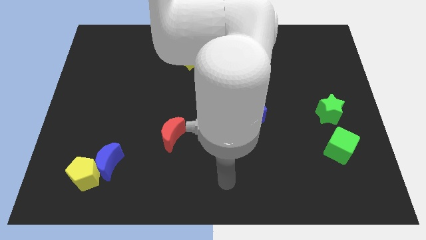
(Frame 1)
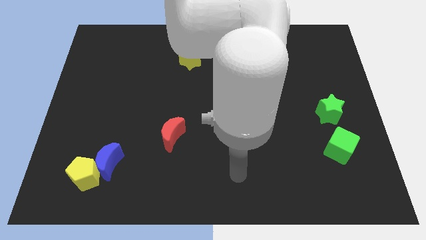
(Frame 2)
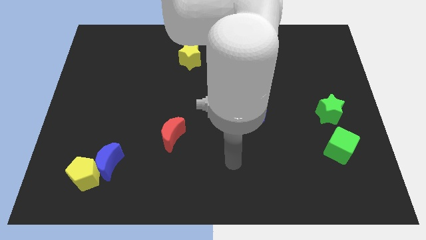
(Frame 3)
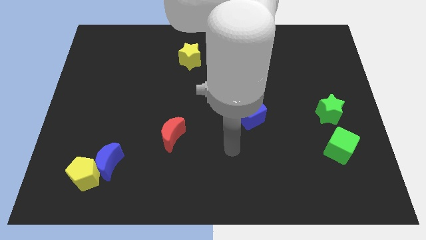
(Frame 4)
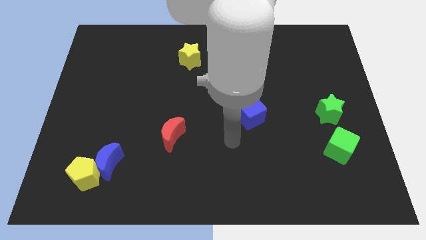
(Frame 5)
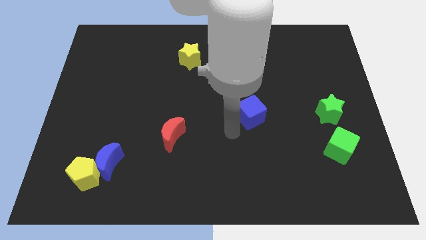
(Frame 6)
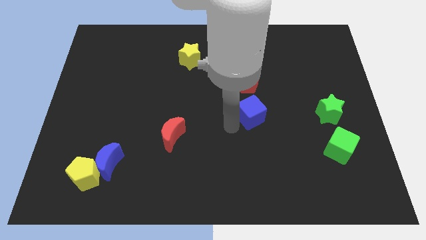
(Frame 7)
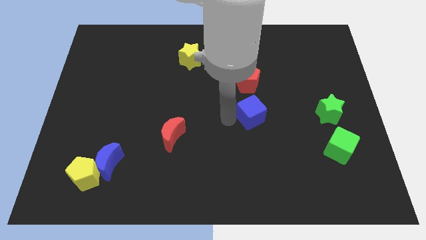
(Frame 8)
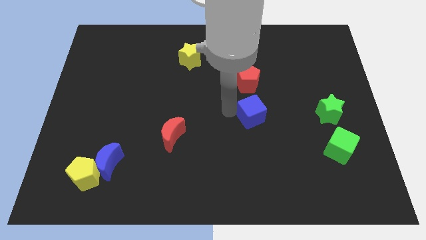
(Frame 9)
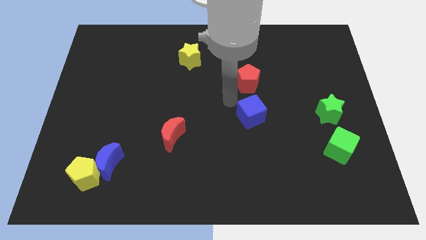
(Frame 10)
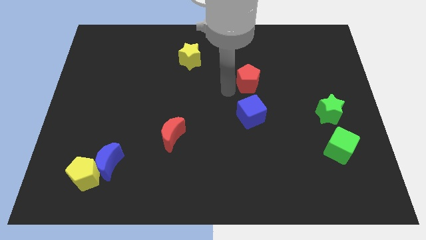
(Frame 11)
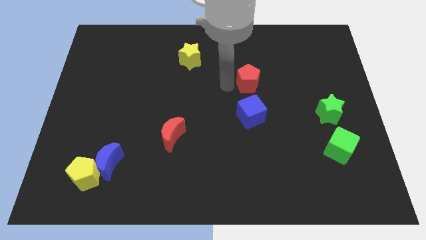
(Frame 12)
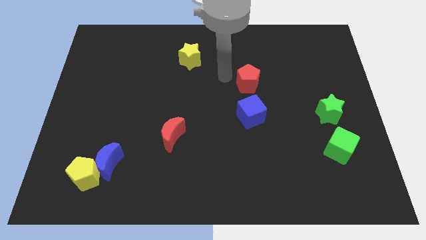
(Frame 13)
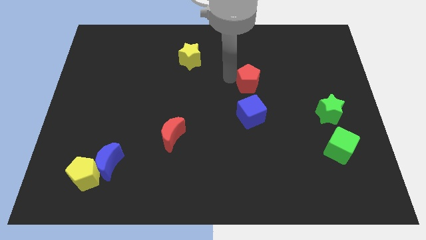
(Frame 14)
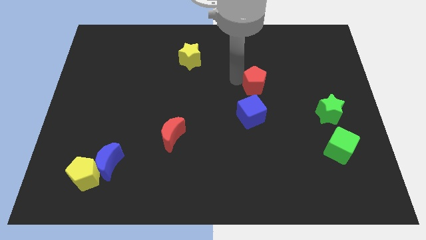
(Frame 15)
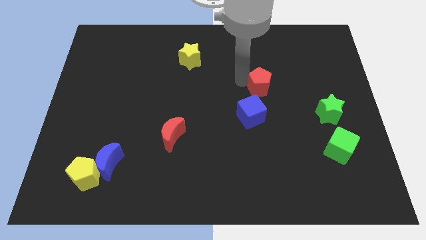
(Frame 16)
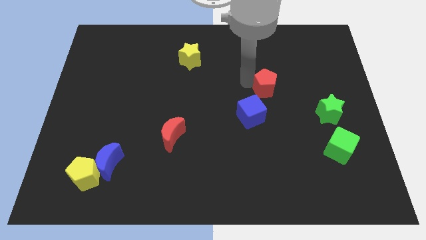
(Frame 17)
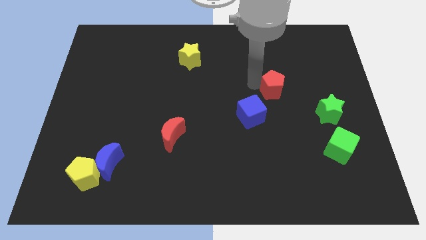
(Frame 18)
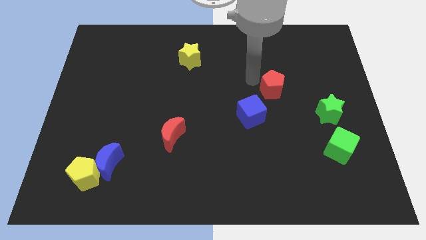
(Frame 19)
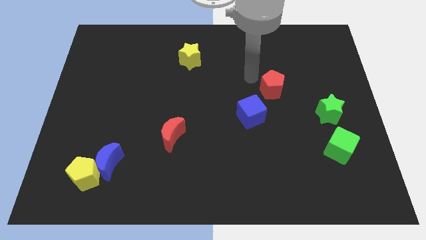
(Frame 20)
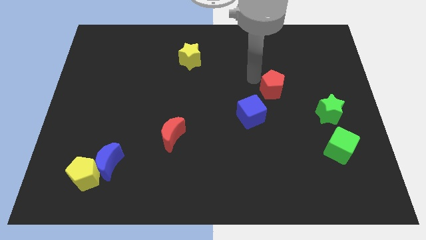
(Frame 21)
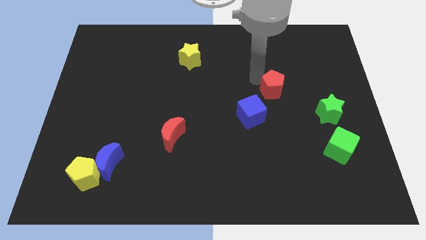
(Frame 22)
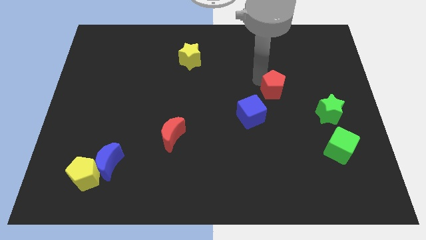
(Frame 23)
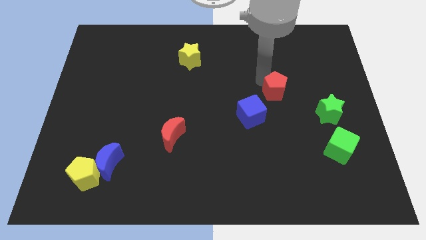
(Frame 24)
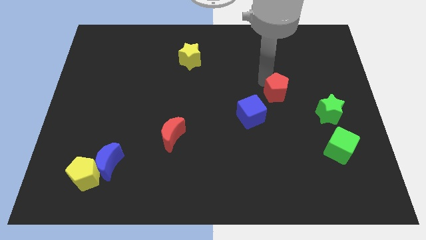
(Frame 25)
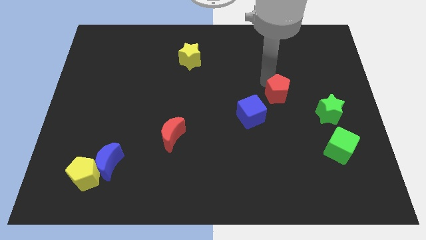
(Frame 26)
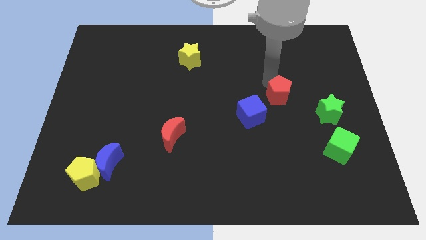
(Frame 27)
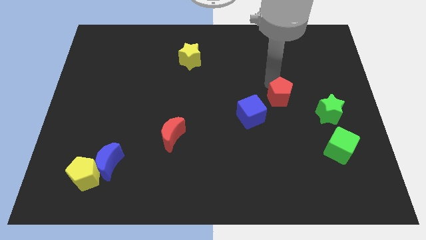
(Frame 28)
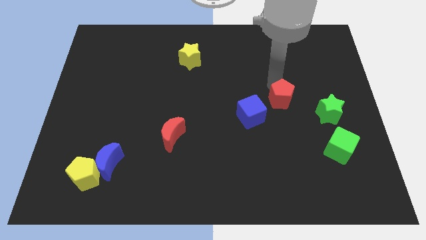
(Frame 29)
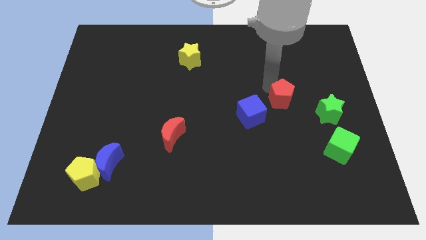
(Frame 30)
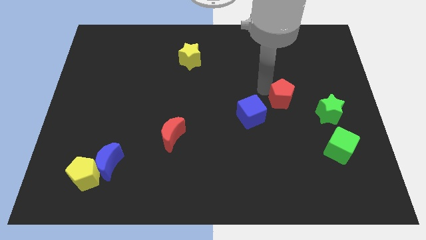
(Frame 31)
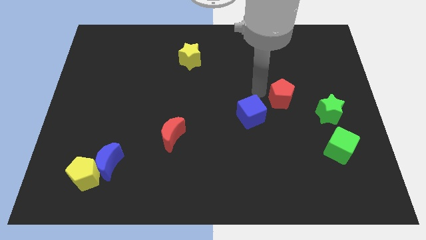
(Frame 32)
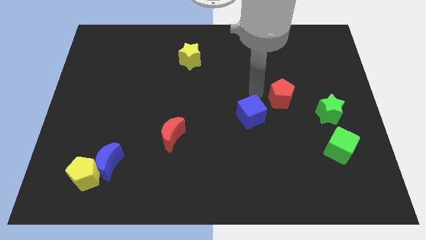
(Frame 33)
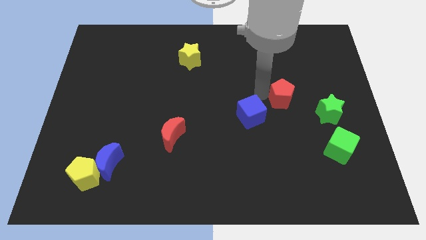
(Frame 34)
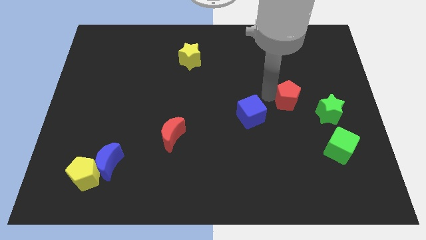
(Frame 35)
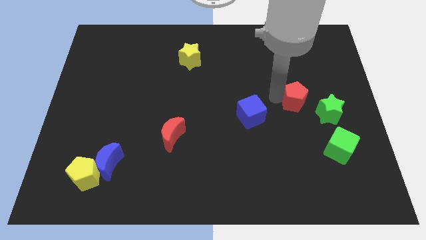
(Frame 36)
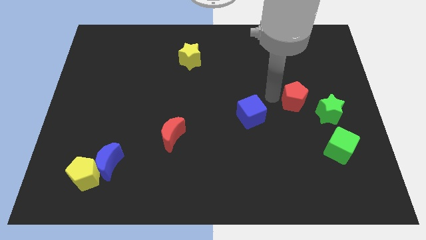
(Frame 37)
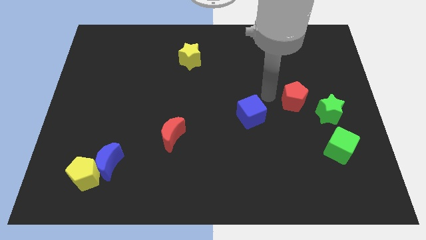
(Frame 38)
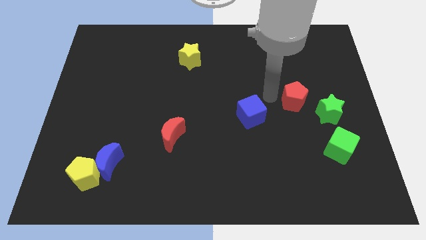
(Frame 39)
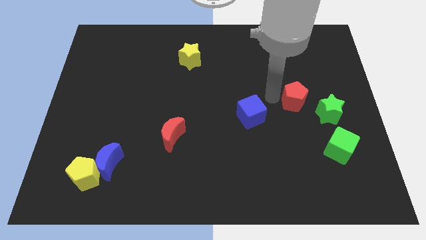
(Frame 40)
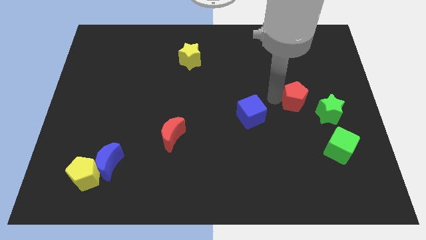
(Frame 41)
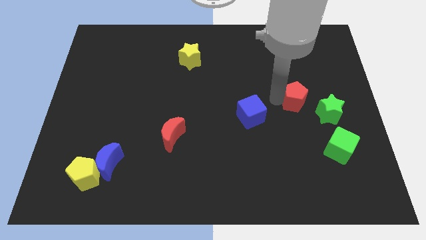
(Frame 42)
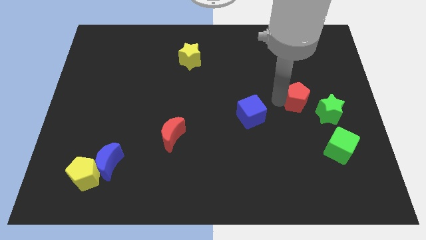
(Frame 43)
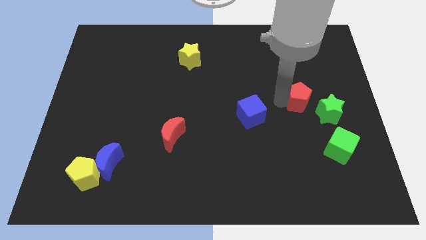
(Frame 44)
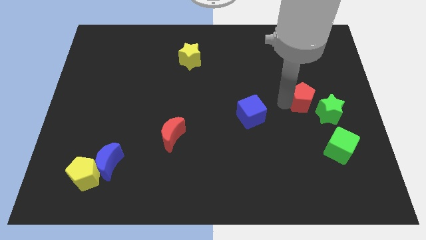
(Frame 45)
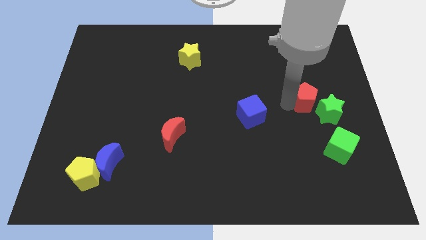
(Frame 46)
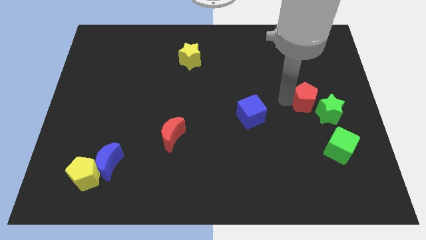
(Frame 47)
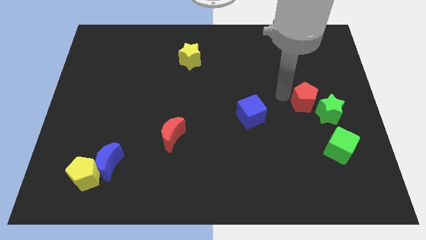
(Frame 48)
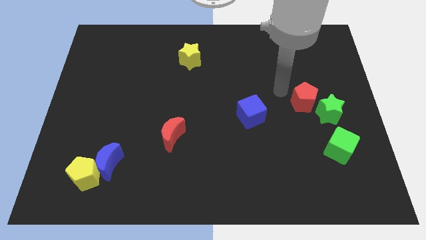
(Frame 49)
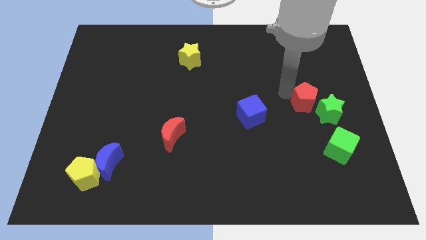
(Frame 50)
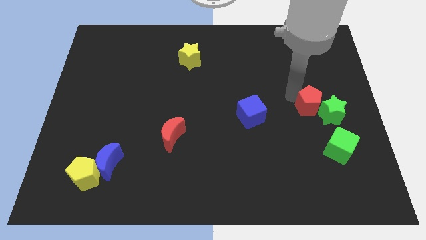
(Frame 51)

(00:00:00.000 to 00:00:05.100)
put the red pentagon next to the green star

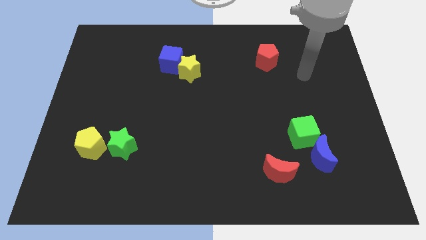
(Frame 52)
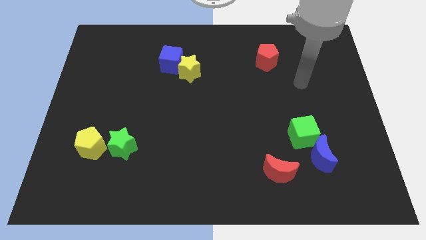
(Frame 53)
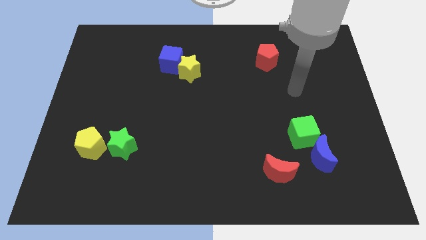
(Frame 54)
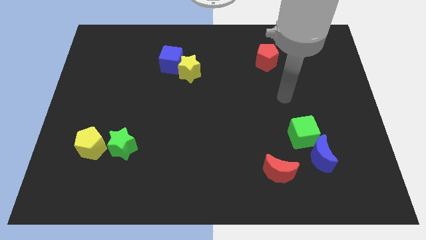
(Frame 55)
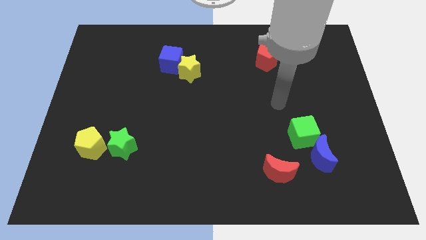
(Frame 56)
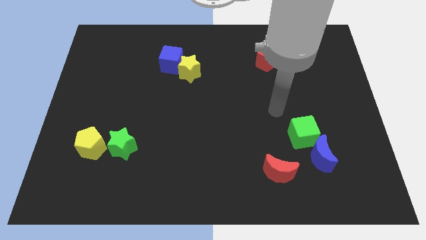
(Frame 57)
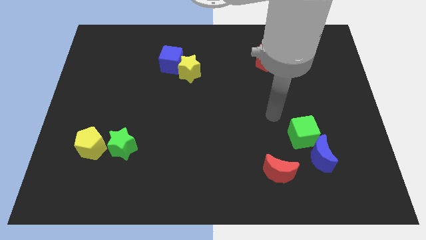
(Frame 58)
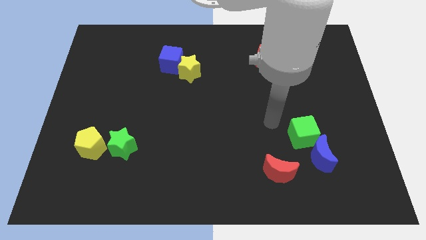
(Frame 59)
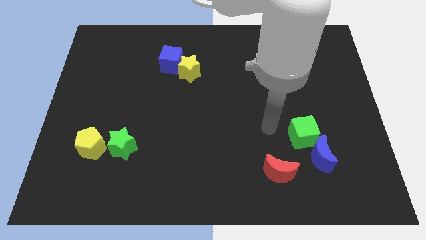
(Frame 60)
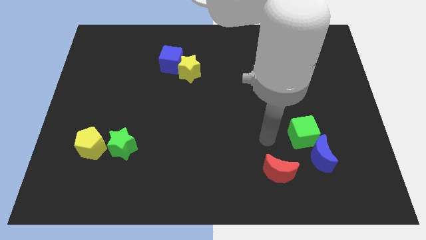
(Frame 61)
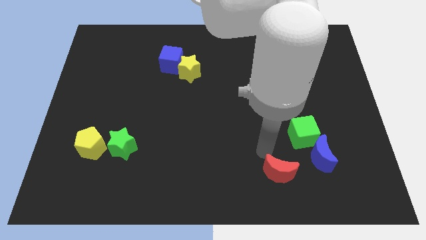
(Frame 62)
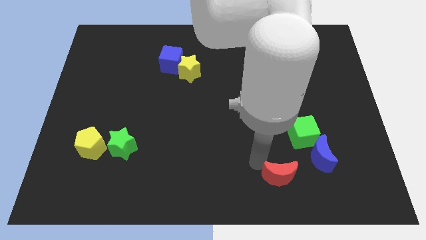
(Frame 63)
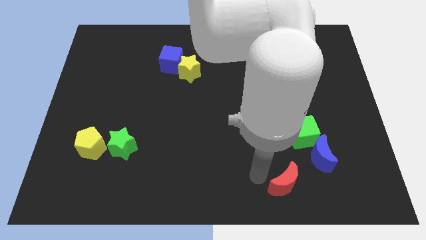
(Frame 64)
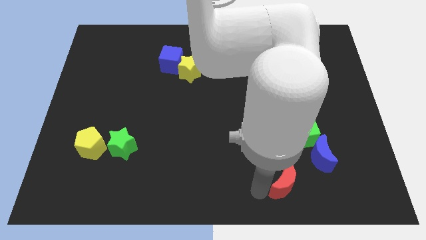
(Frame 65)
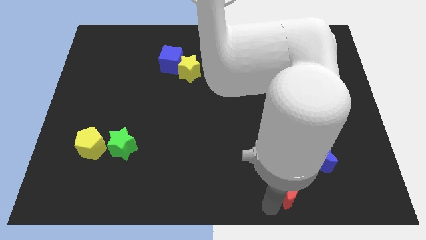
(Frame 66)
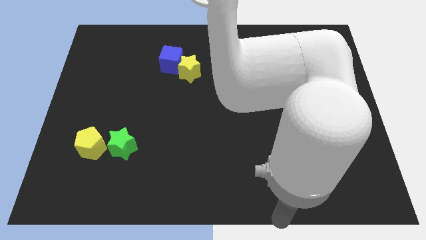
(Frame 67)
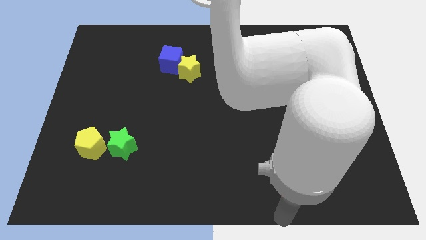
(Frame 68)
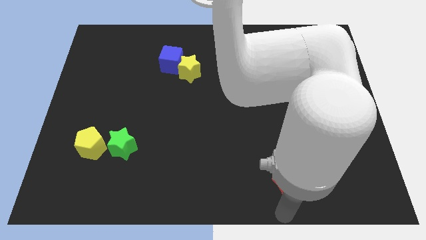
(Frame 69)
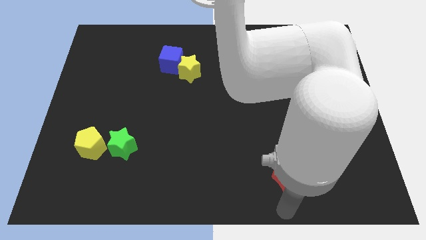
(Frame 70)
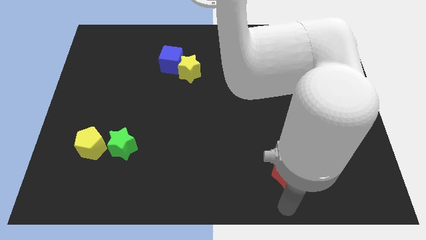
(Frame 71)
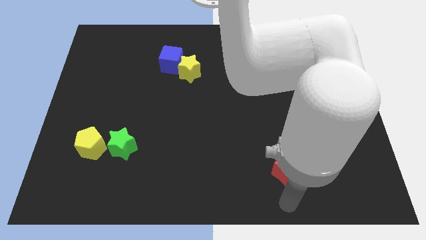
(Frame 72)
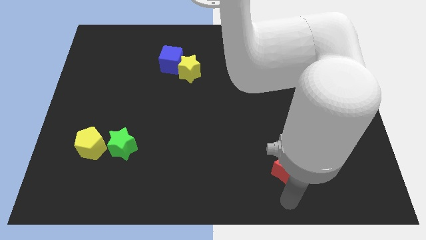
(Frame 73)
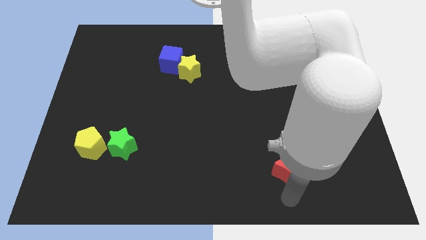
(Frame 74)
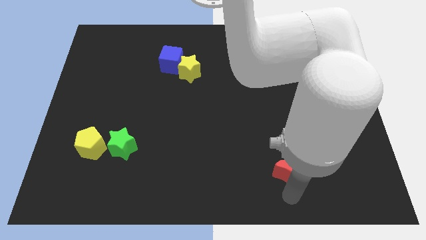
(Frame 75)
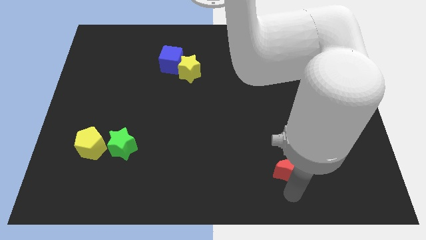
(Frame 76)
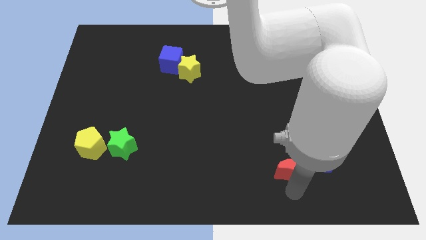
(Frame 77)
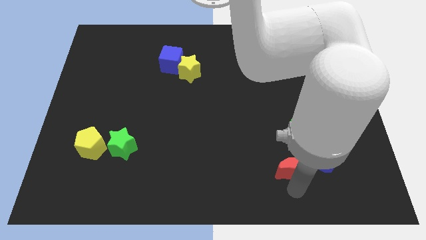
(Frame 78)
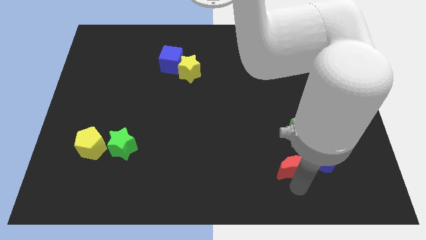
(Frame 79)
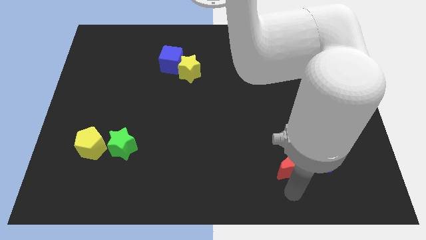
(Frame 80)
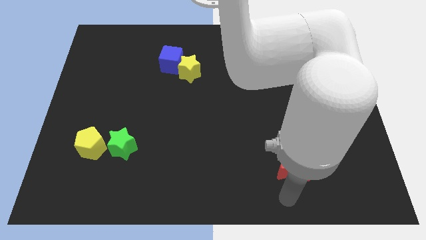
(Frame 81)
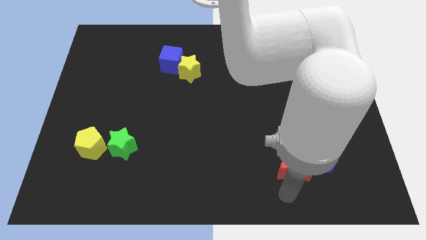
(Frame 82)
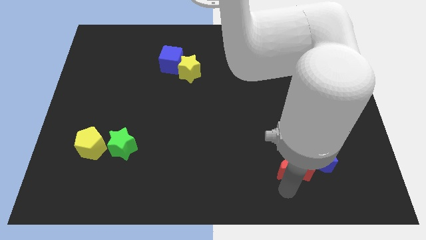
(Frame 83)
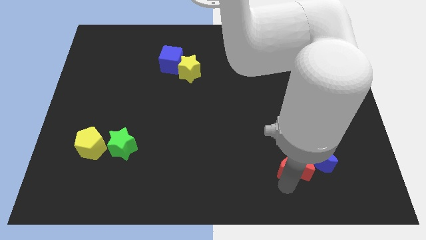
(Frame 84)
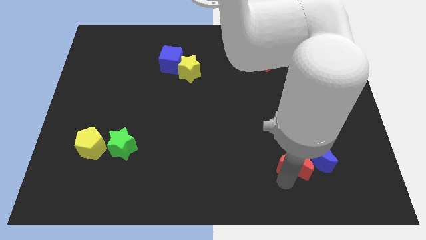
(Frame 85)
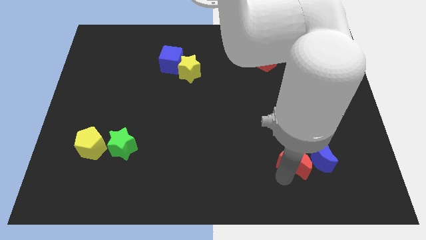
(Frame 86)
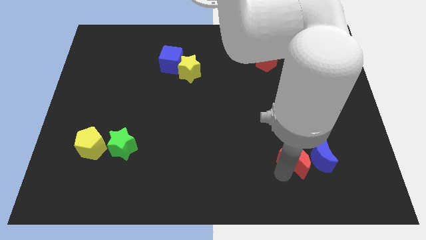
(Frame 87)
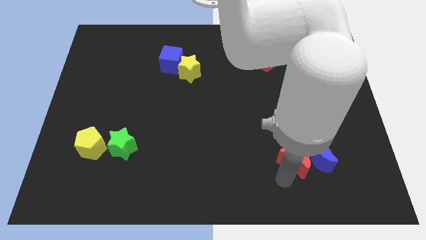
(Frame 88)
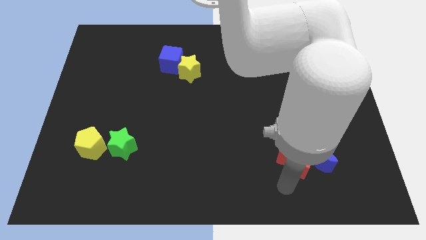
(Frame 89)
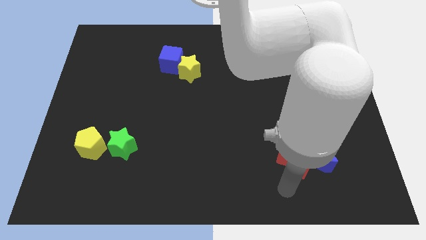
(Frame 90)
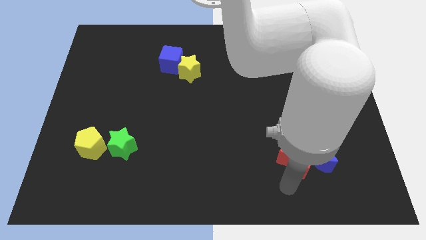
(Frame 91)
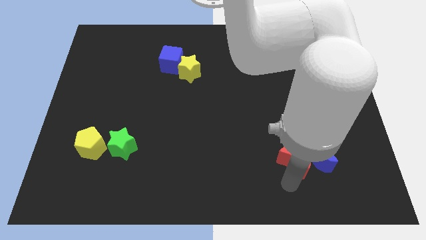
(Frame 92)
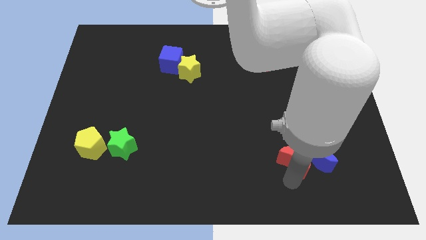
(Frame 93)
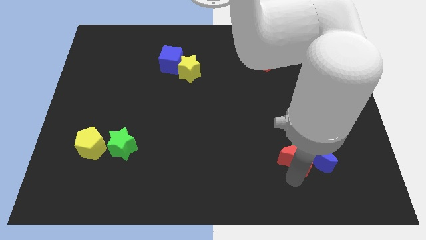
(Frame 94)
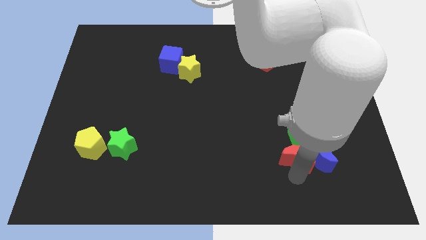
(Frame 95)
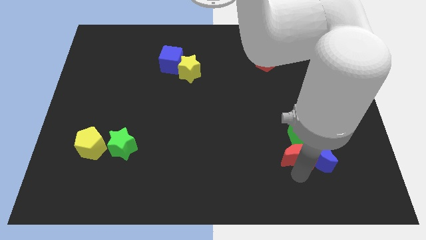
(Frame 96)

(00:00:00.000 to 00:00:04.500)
push the red moon next to the green cube
